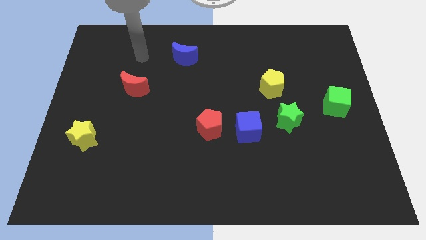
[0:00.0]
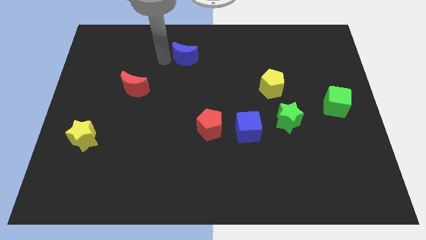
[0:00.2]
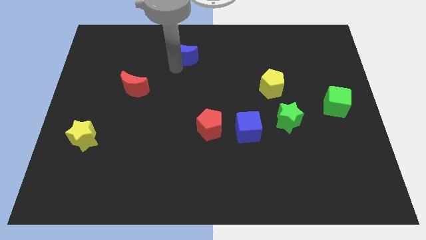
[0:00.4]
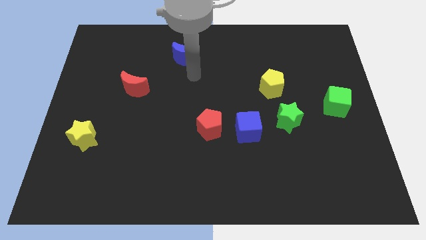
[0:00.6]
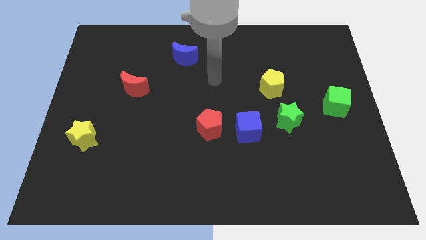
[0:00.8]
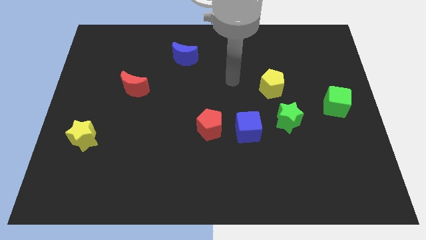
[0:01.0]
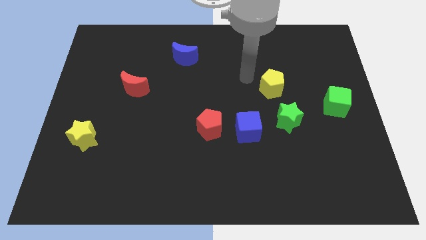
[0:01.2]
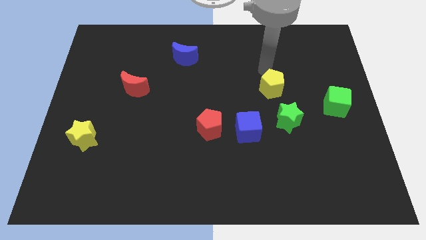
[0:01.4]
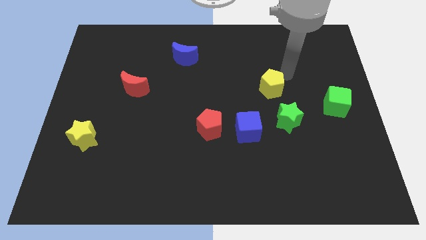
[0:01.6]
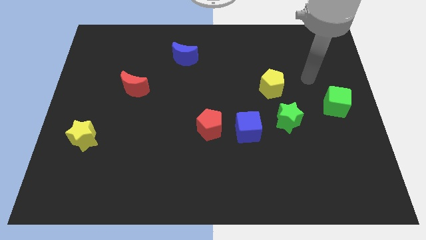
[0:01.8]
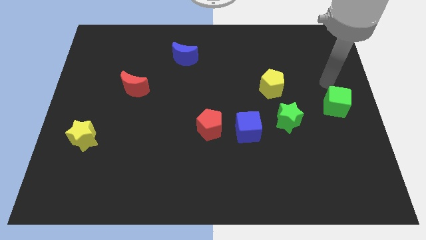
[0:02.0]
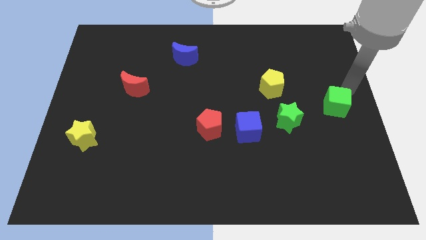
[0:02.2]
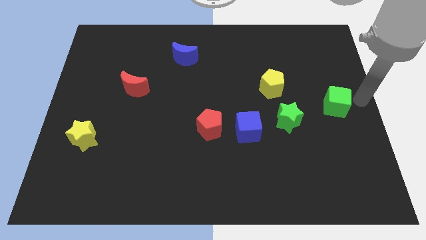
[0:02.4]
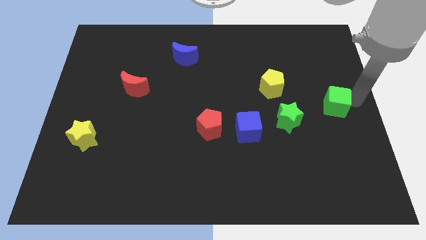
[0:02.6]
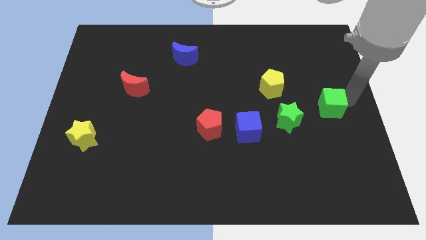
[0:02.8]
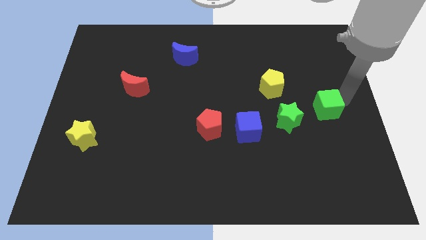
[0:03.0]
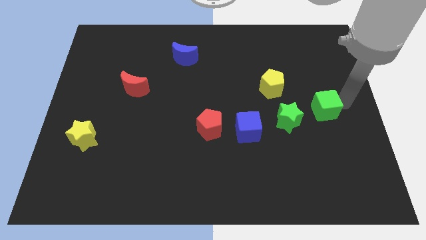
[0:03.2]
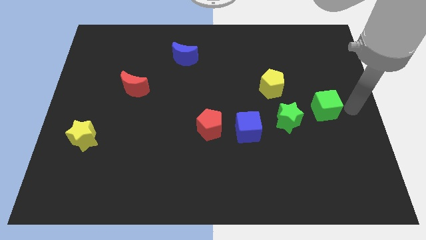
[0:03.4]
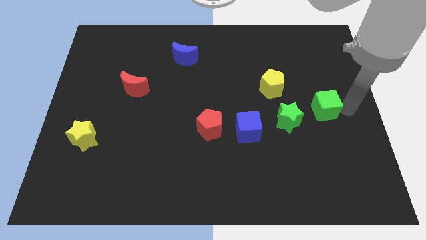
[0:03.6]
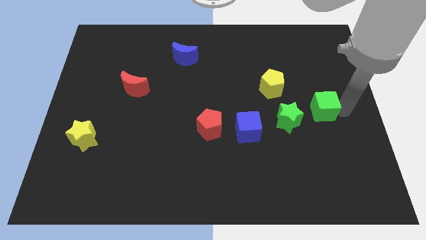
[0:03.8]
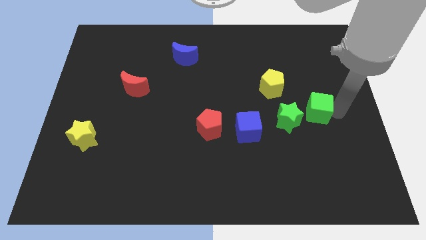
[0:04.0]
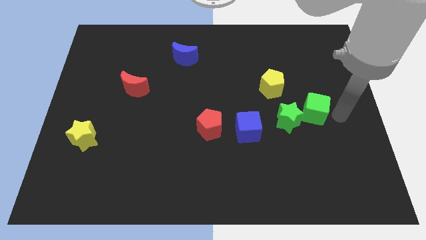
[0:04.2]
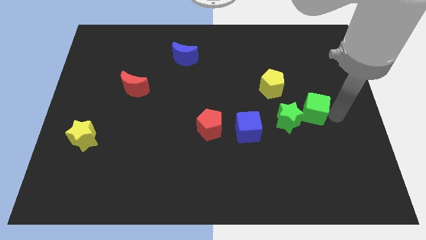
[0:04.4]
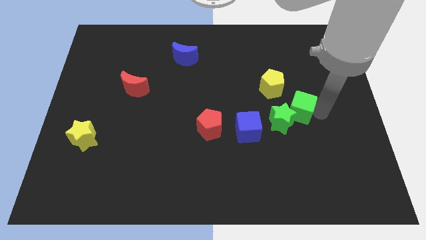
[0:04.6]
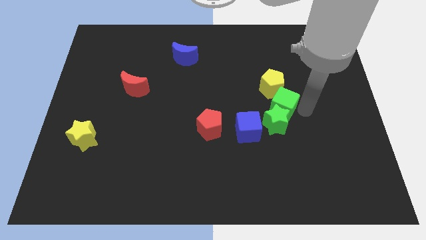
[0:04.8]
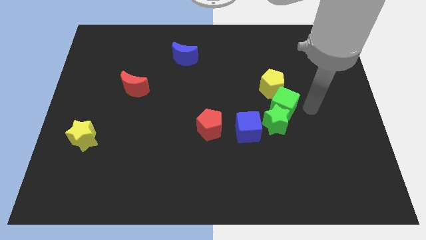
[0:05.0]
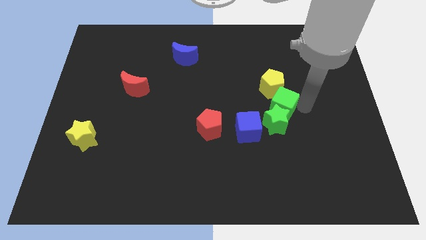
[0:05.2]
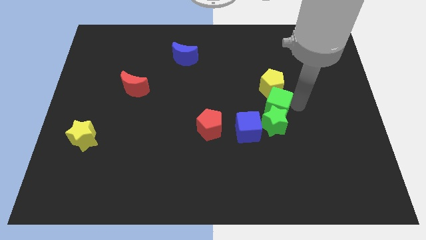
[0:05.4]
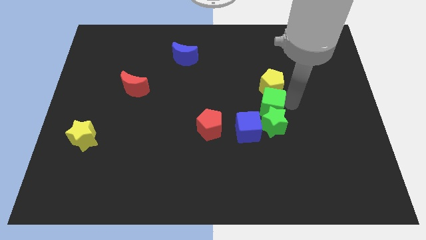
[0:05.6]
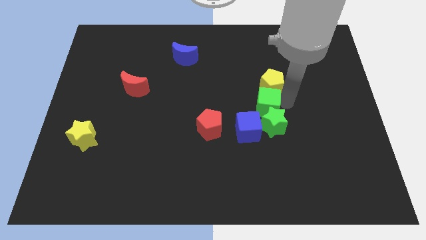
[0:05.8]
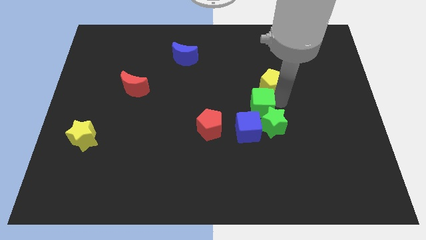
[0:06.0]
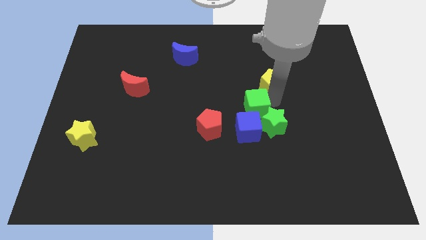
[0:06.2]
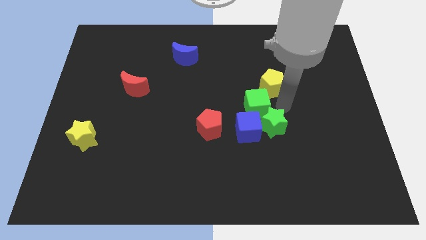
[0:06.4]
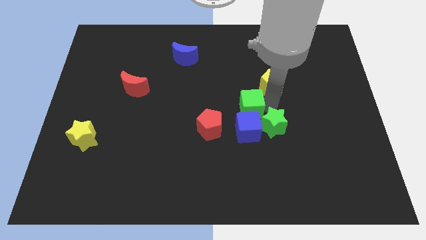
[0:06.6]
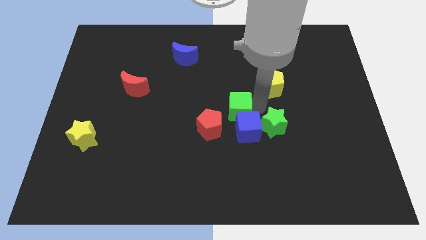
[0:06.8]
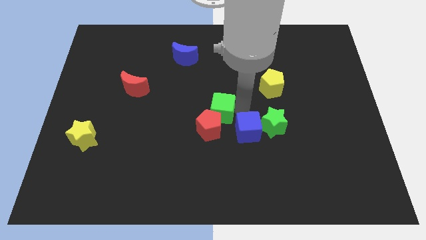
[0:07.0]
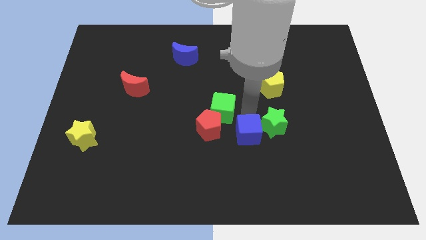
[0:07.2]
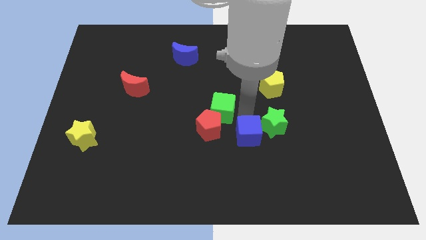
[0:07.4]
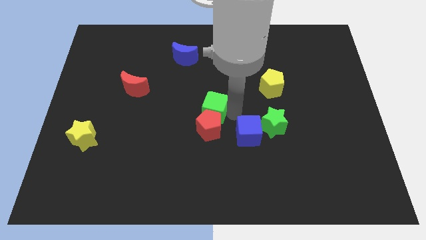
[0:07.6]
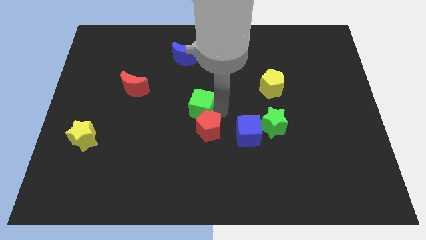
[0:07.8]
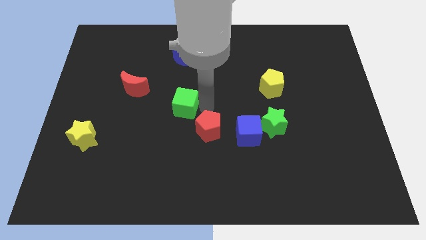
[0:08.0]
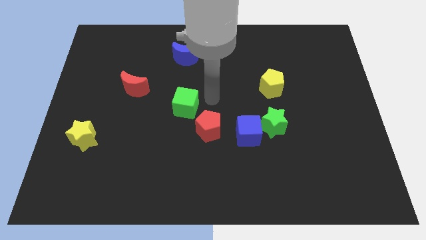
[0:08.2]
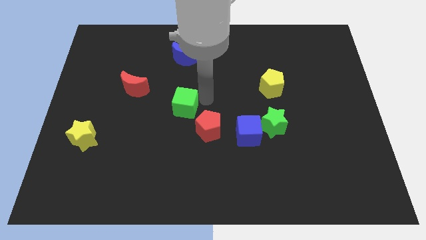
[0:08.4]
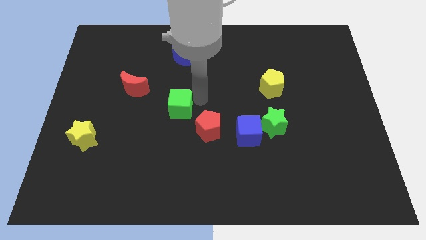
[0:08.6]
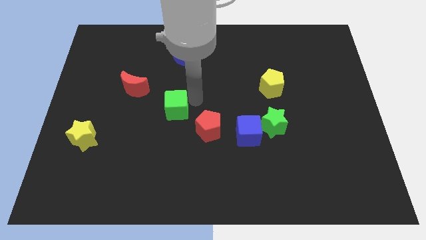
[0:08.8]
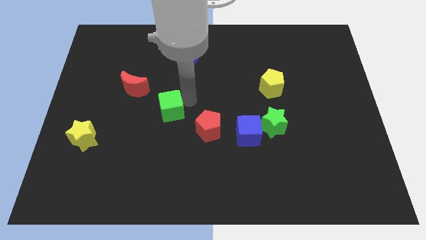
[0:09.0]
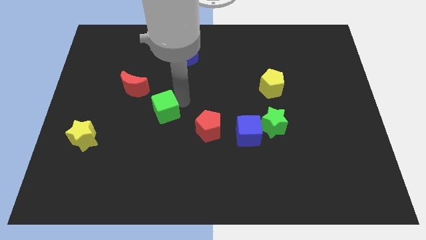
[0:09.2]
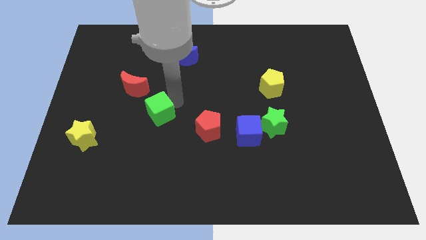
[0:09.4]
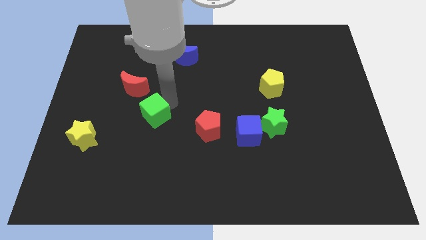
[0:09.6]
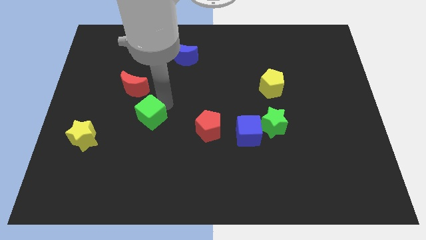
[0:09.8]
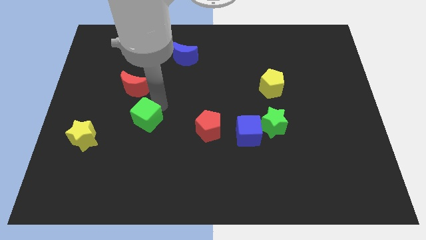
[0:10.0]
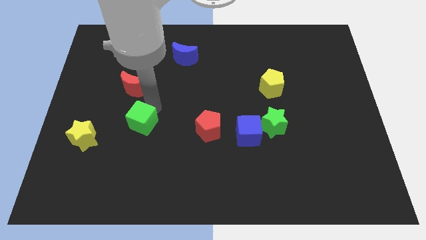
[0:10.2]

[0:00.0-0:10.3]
slide the green cube just right of the yellow star

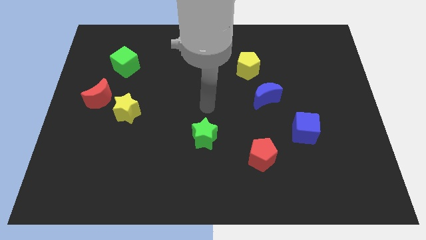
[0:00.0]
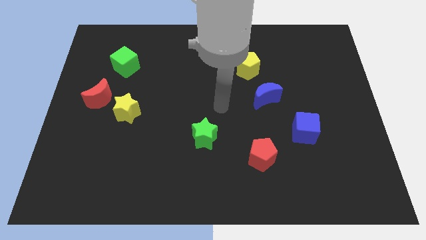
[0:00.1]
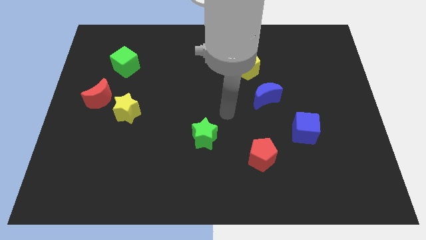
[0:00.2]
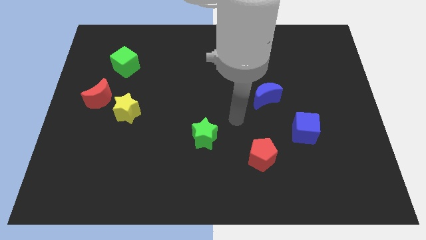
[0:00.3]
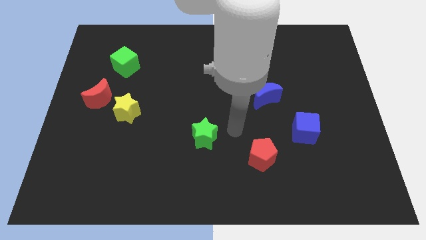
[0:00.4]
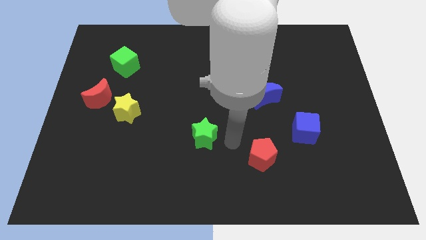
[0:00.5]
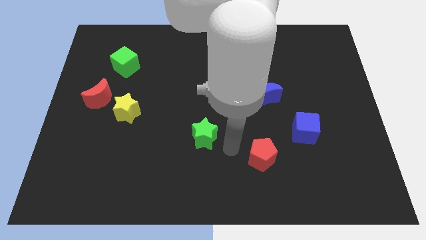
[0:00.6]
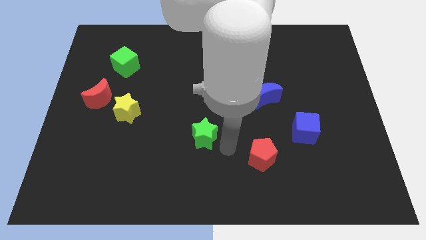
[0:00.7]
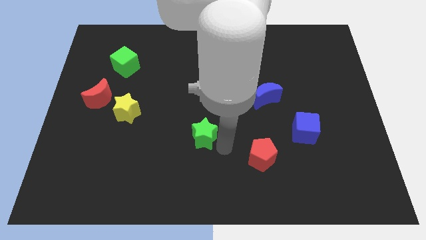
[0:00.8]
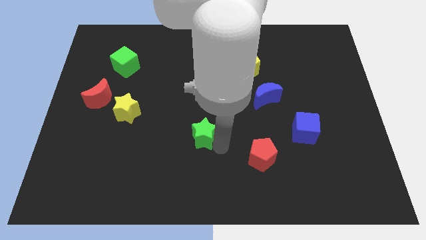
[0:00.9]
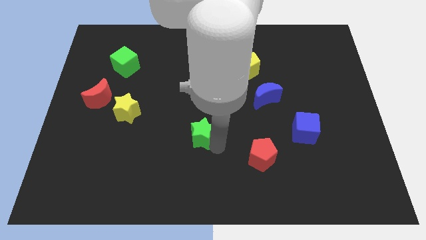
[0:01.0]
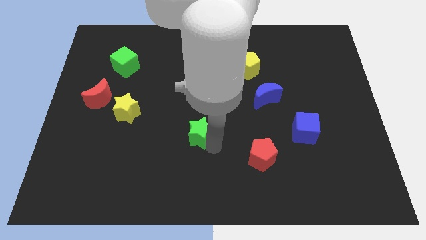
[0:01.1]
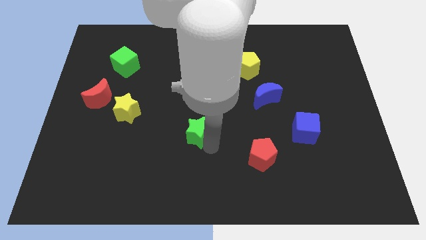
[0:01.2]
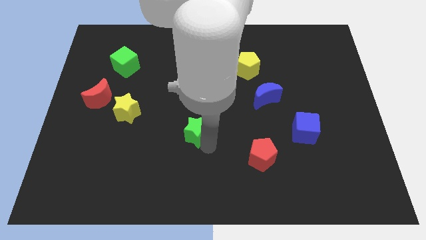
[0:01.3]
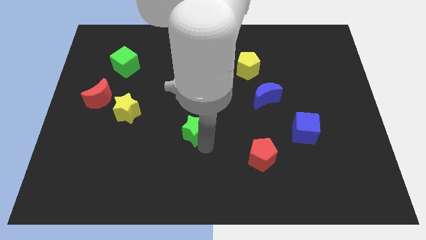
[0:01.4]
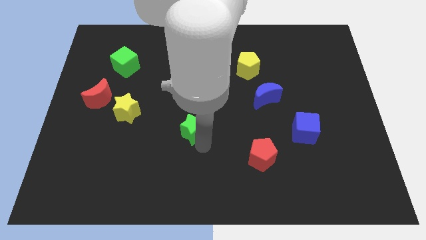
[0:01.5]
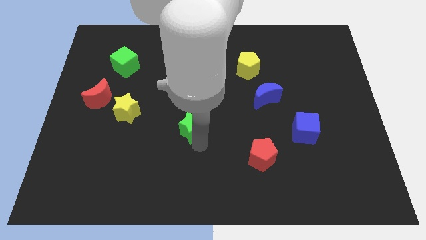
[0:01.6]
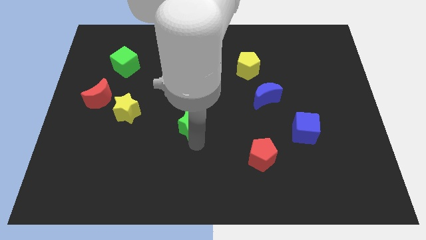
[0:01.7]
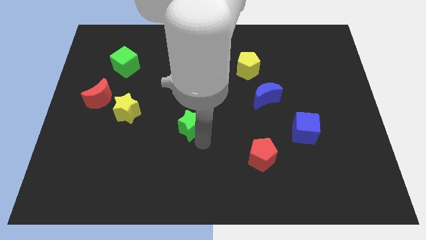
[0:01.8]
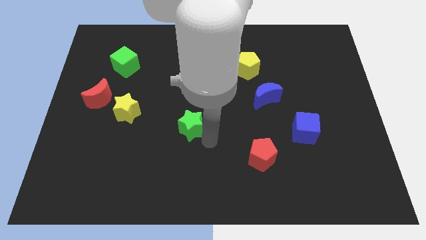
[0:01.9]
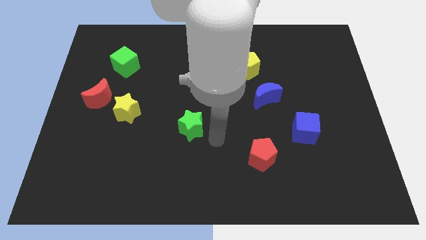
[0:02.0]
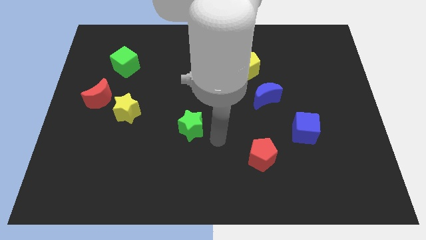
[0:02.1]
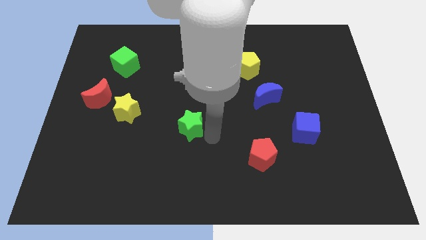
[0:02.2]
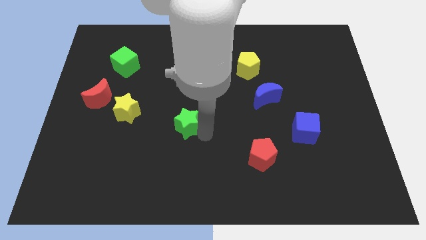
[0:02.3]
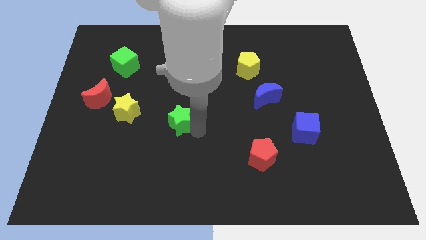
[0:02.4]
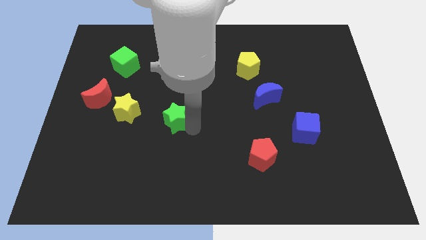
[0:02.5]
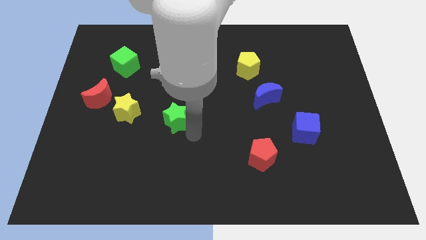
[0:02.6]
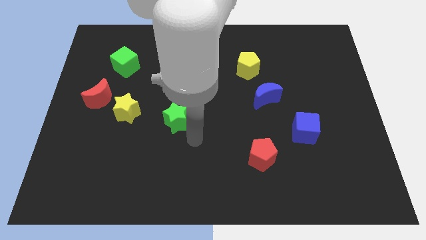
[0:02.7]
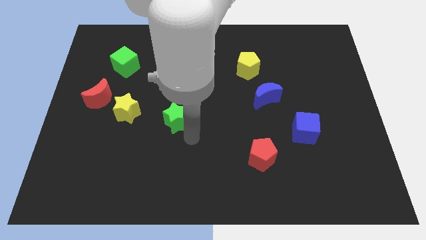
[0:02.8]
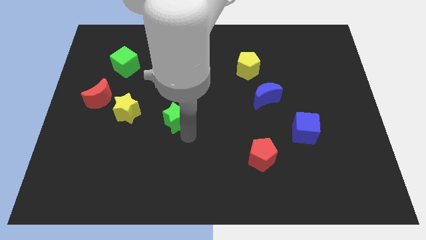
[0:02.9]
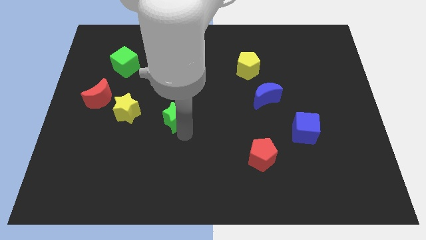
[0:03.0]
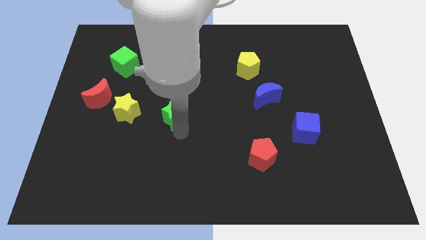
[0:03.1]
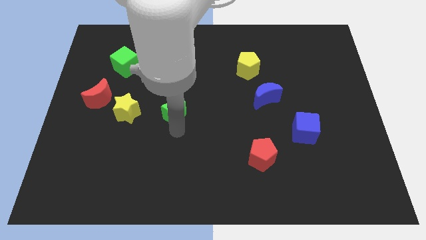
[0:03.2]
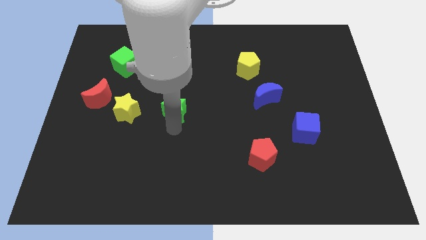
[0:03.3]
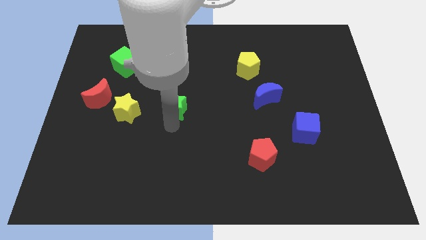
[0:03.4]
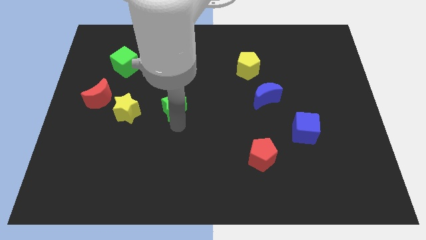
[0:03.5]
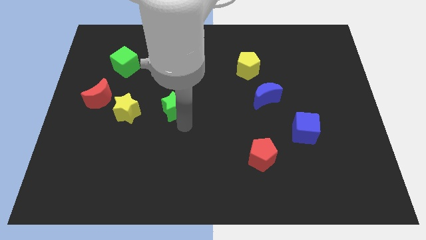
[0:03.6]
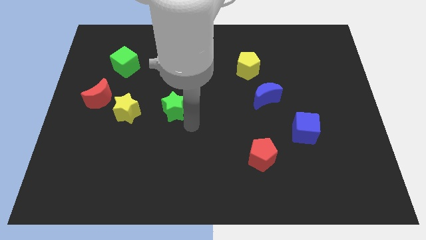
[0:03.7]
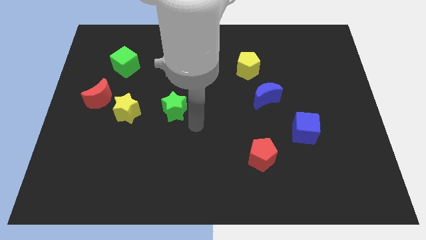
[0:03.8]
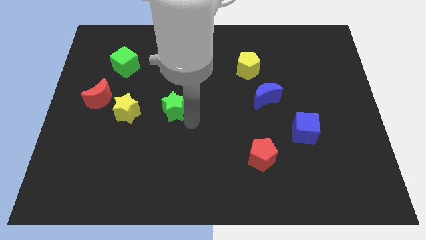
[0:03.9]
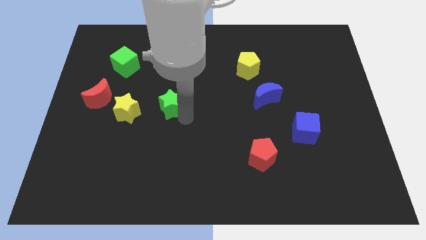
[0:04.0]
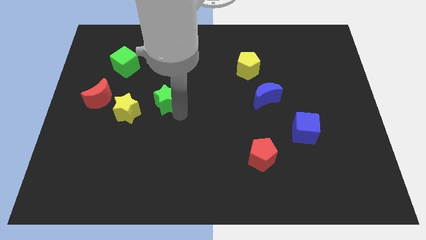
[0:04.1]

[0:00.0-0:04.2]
put the green star diagonally up and to the right of the yellow star
